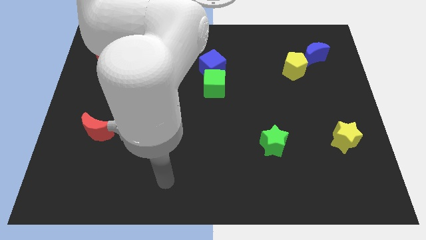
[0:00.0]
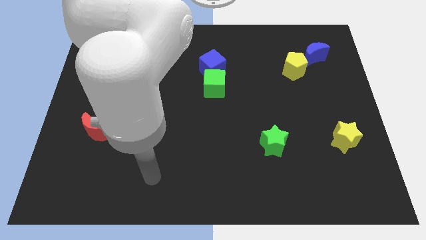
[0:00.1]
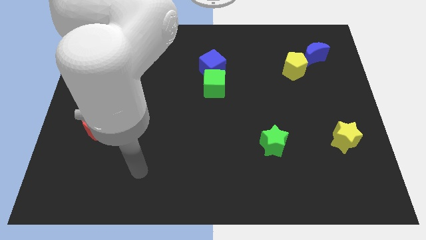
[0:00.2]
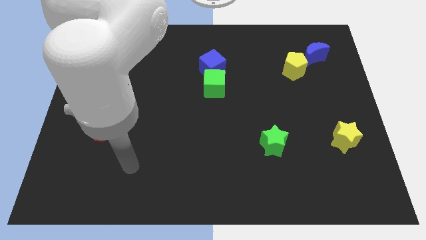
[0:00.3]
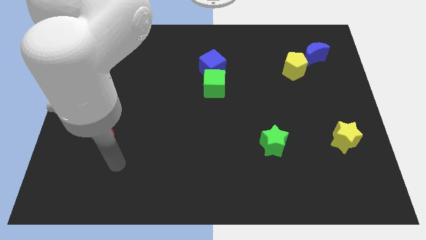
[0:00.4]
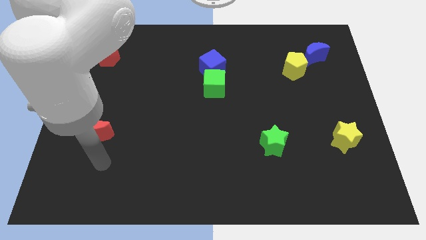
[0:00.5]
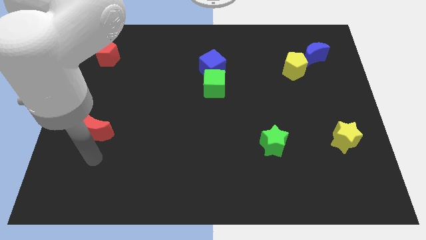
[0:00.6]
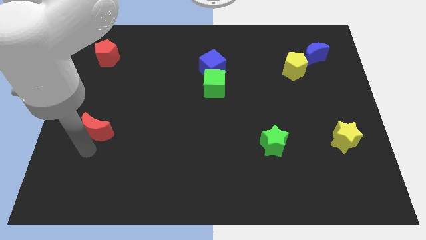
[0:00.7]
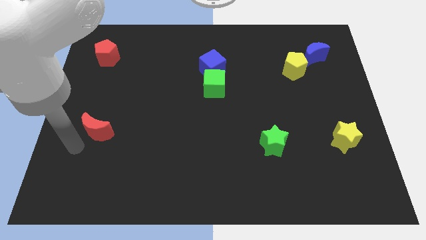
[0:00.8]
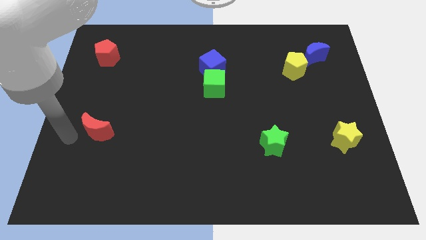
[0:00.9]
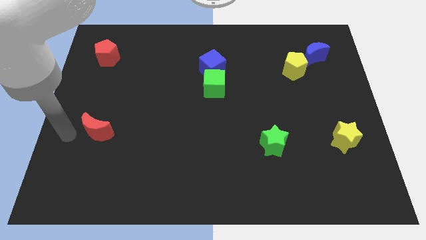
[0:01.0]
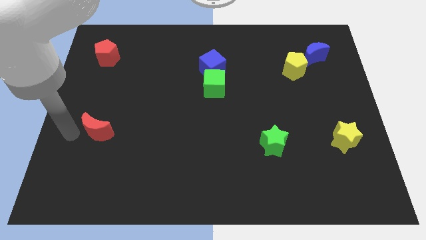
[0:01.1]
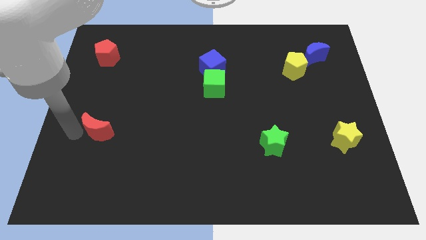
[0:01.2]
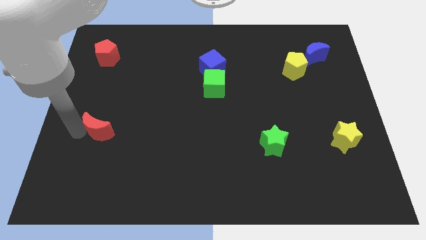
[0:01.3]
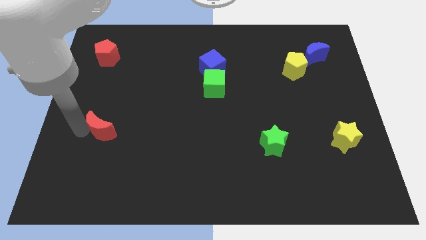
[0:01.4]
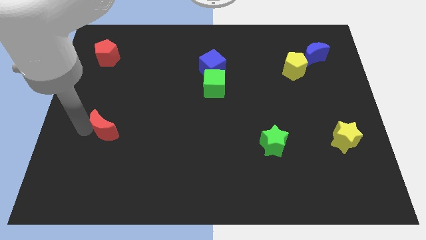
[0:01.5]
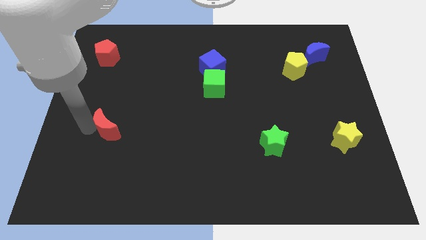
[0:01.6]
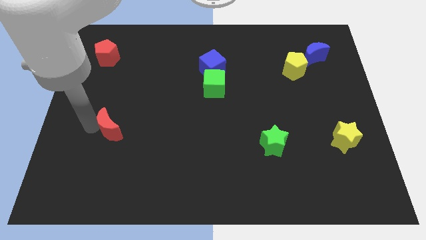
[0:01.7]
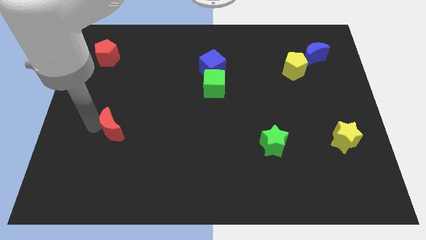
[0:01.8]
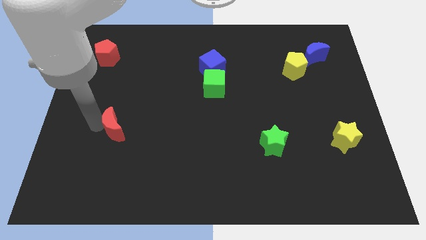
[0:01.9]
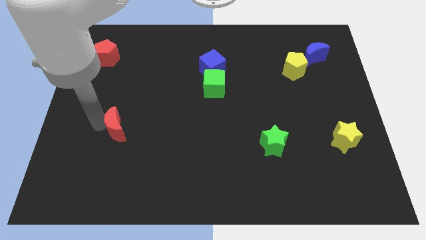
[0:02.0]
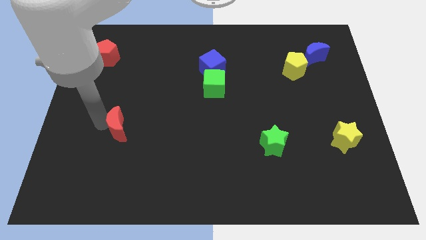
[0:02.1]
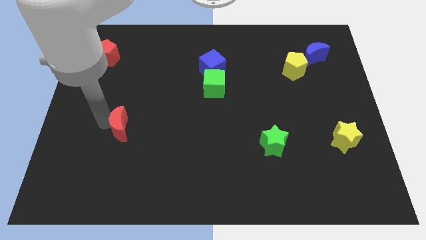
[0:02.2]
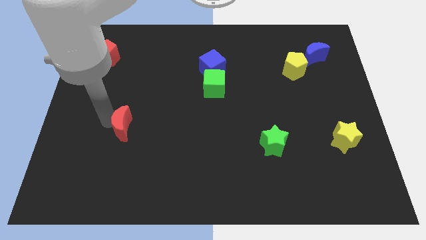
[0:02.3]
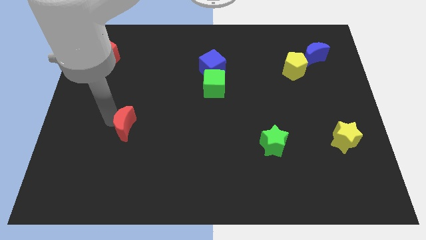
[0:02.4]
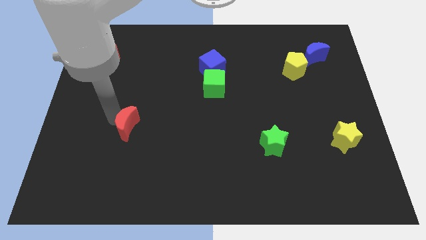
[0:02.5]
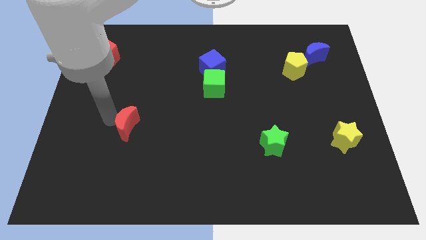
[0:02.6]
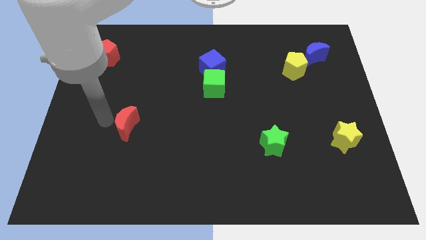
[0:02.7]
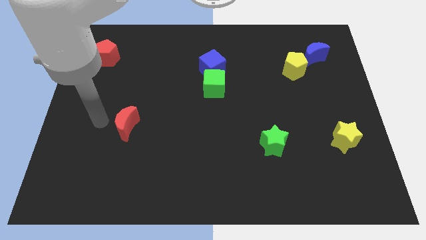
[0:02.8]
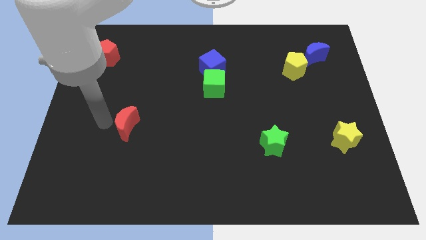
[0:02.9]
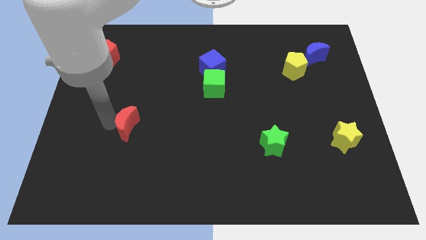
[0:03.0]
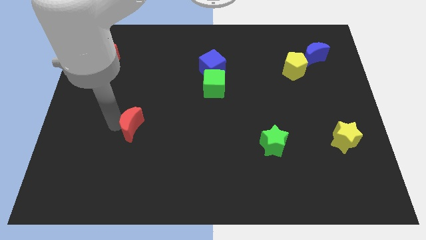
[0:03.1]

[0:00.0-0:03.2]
move the red moon somewhat right

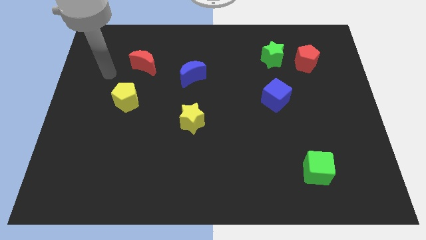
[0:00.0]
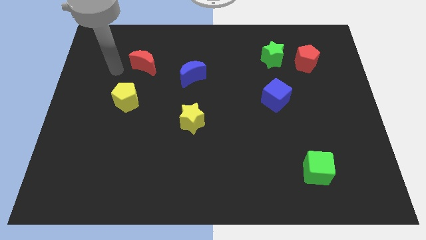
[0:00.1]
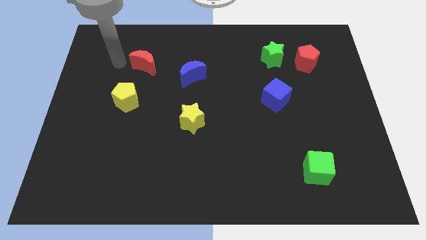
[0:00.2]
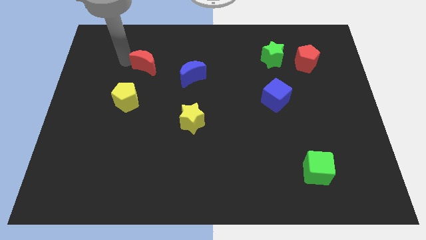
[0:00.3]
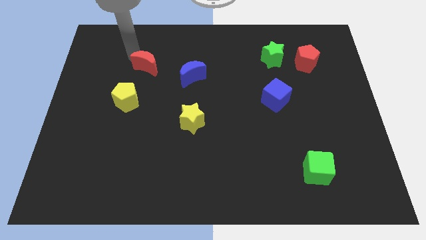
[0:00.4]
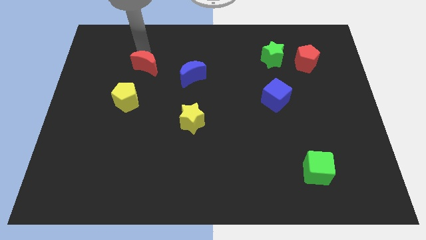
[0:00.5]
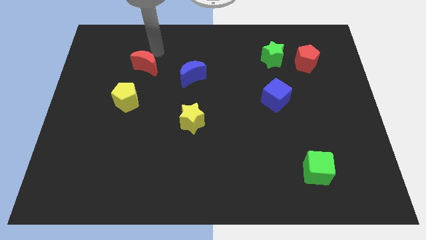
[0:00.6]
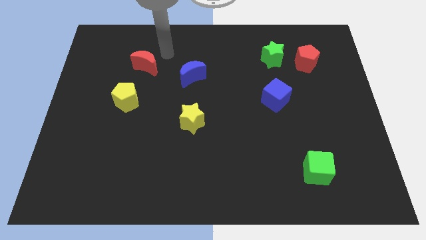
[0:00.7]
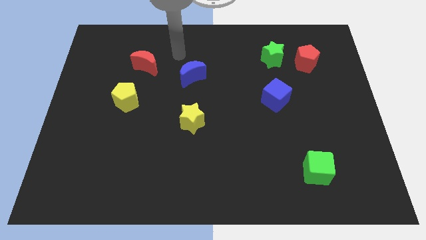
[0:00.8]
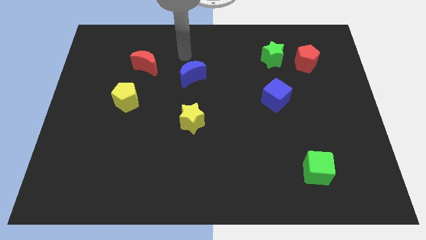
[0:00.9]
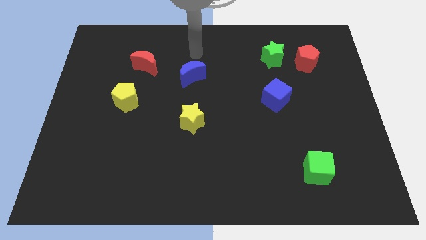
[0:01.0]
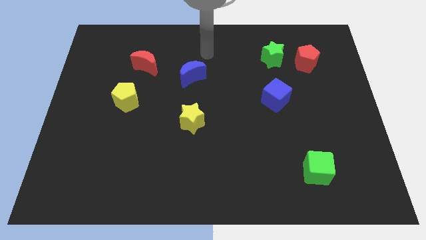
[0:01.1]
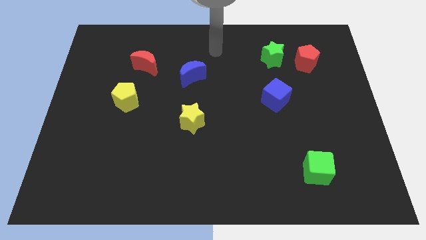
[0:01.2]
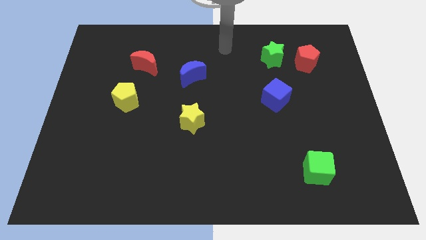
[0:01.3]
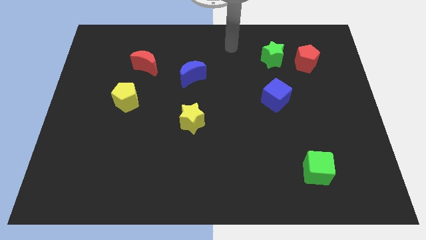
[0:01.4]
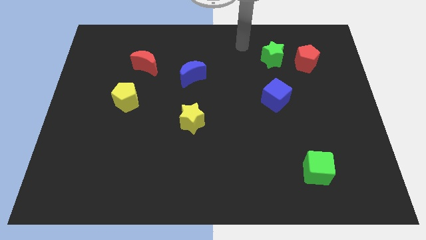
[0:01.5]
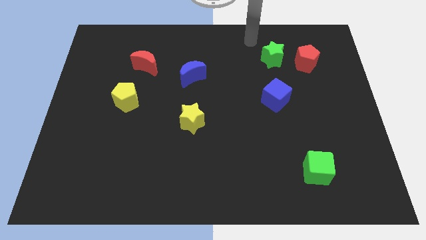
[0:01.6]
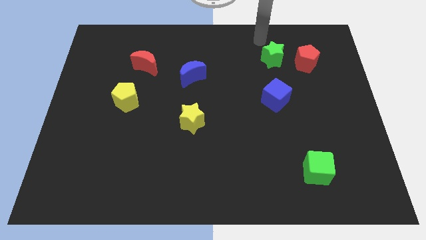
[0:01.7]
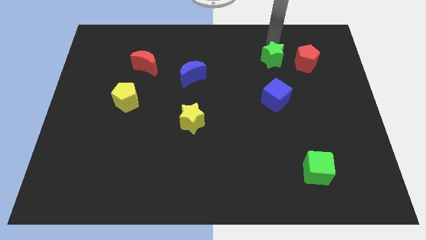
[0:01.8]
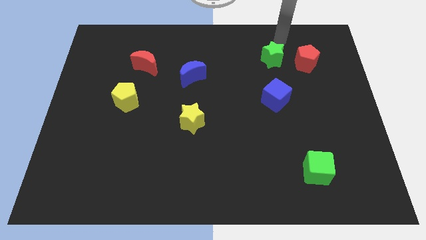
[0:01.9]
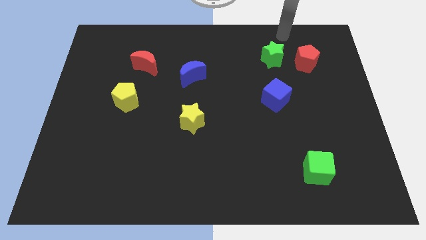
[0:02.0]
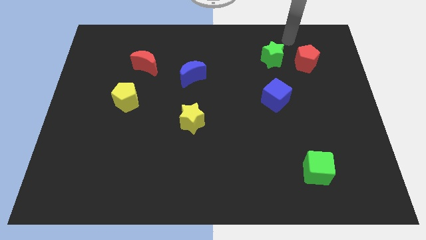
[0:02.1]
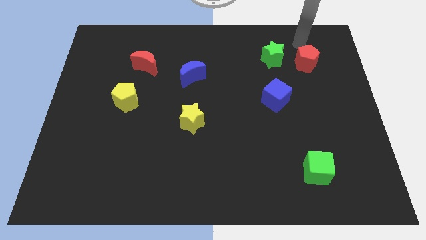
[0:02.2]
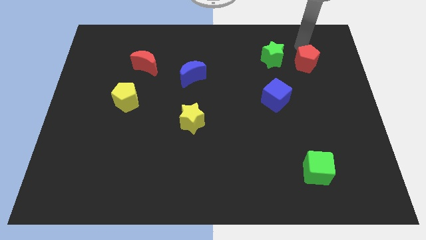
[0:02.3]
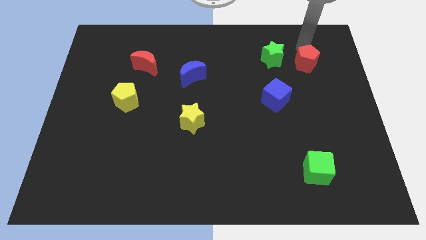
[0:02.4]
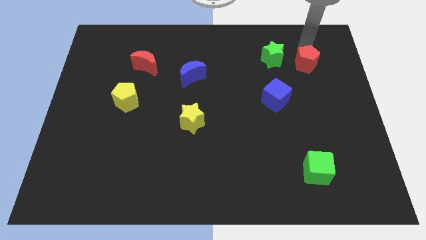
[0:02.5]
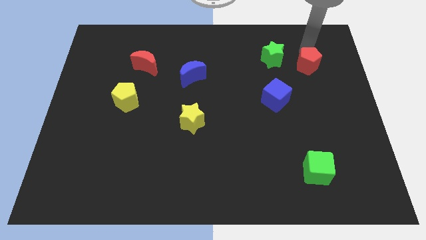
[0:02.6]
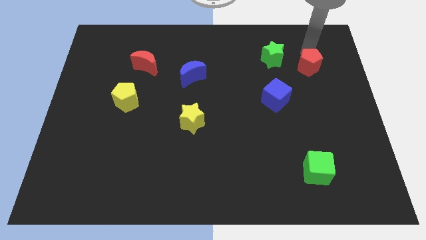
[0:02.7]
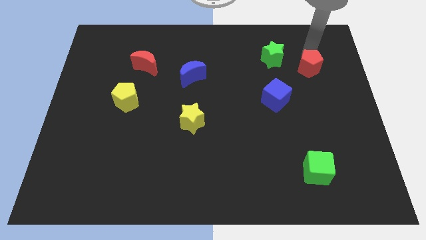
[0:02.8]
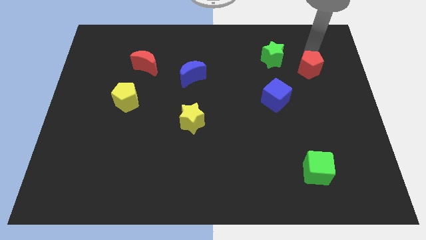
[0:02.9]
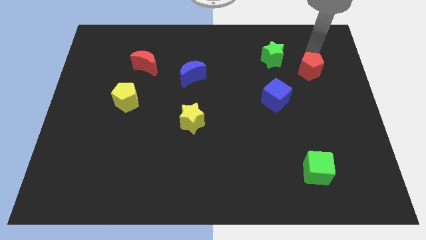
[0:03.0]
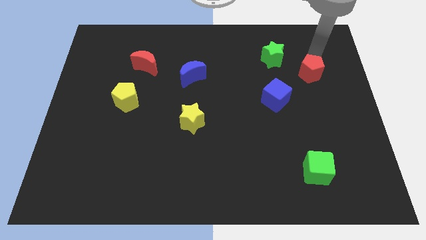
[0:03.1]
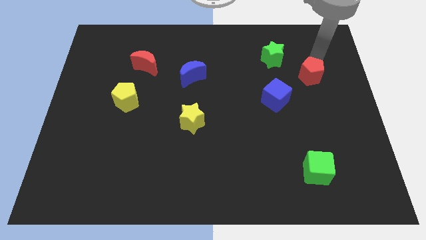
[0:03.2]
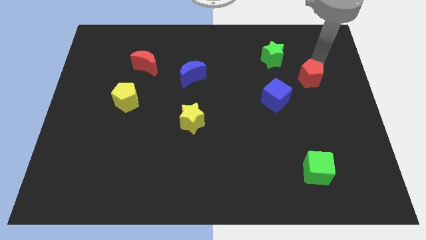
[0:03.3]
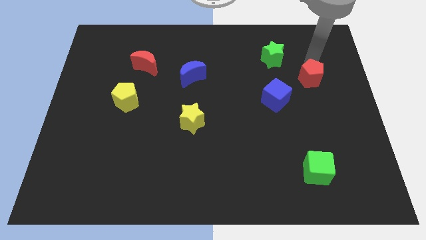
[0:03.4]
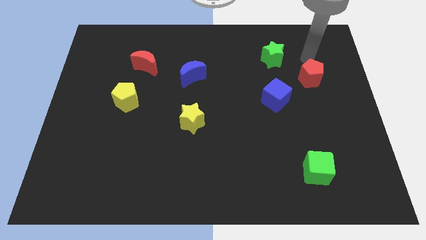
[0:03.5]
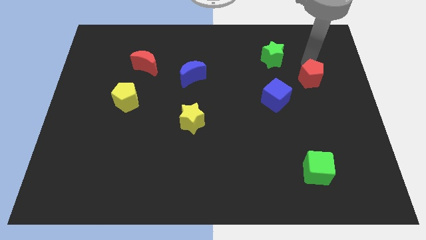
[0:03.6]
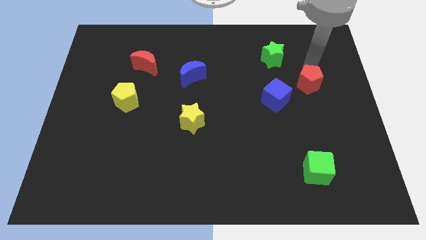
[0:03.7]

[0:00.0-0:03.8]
slightly push the red pentagon downwards

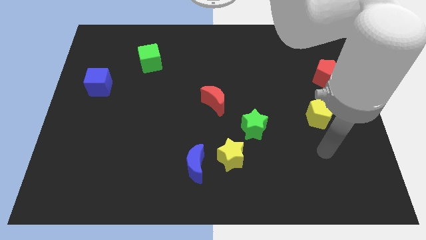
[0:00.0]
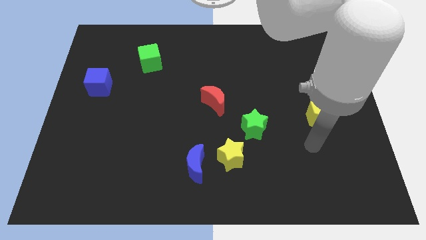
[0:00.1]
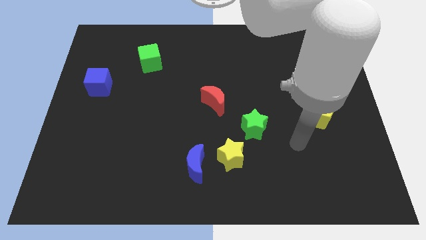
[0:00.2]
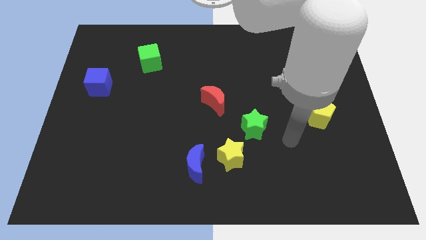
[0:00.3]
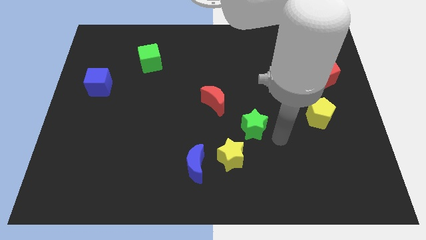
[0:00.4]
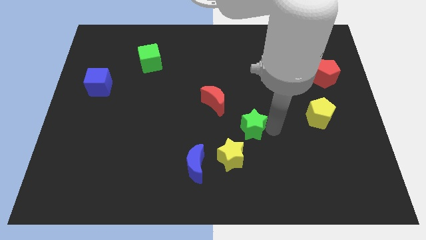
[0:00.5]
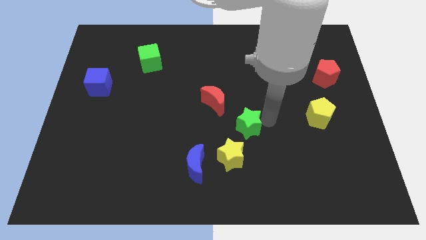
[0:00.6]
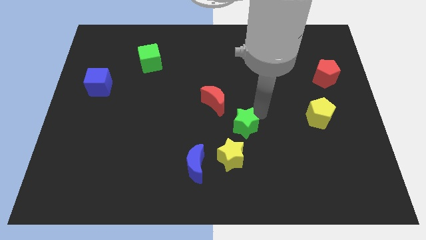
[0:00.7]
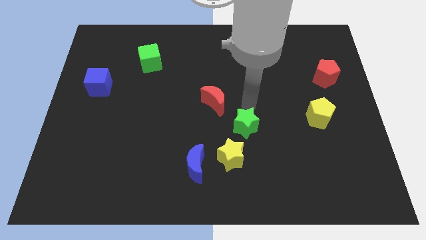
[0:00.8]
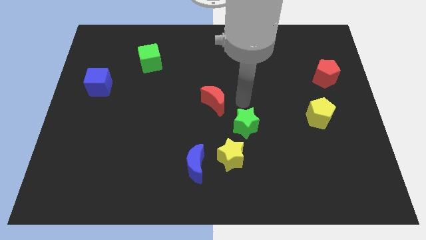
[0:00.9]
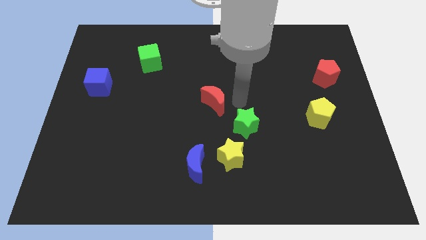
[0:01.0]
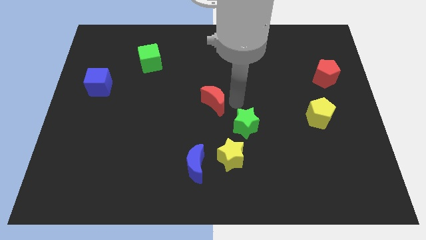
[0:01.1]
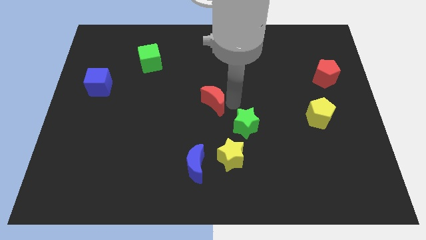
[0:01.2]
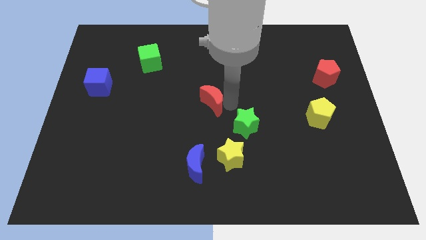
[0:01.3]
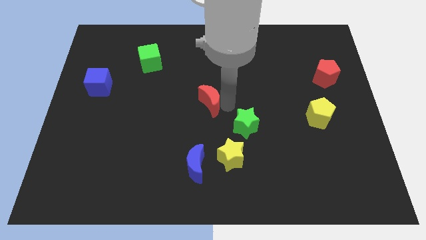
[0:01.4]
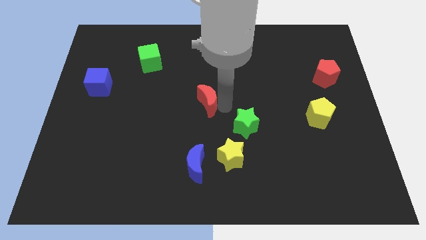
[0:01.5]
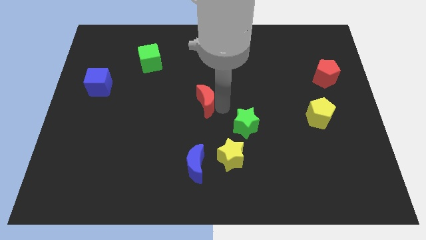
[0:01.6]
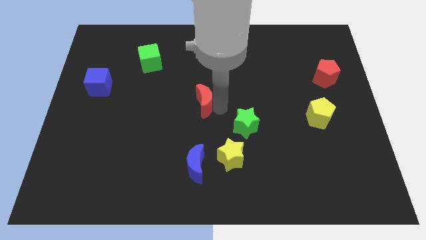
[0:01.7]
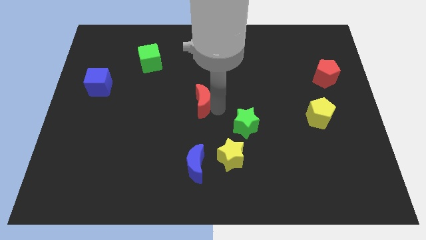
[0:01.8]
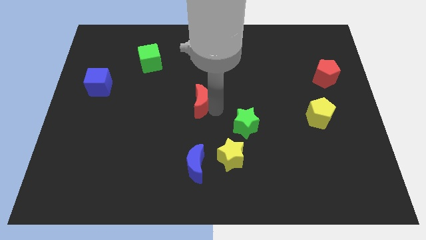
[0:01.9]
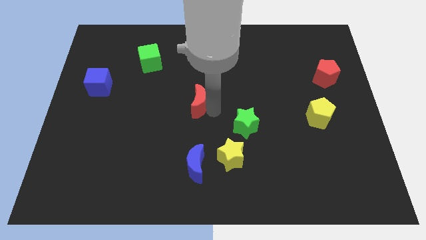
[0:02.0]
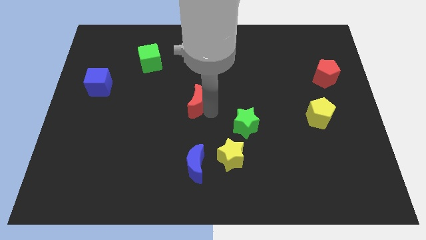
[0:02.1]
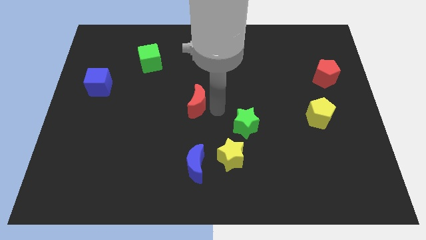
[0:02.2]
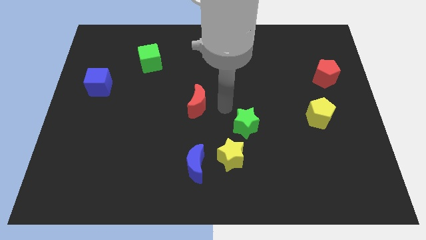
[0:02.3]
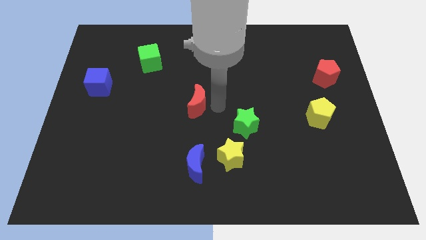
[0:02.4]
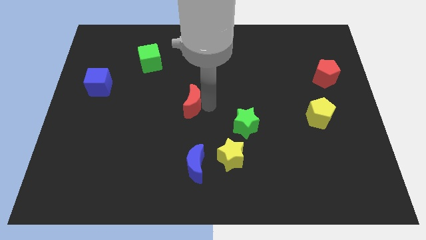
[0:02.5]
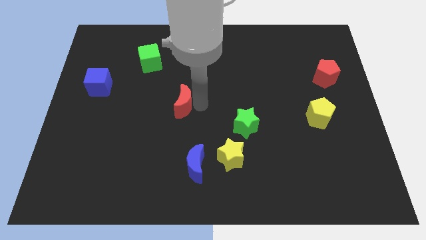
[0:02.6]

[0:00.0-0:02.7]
slightly push the red moon to the left
